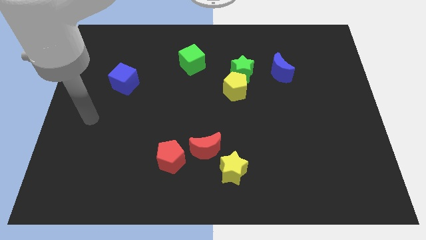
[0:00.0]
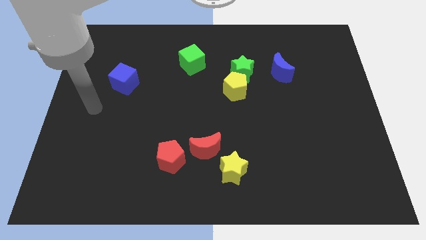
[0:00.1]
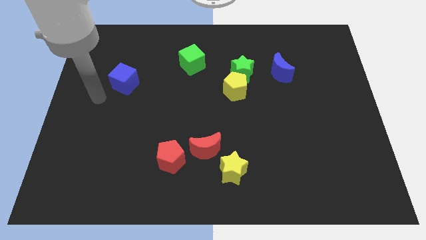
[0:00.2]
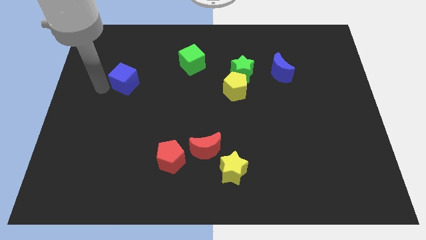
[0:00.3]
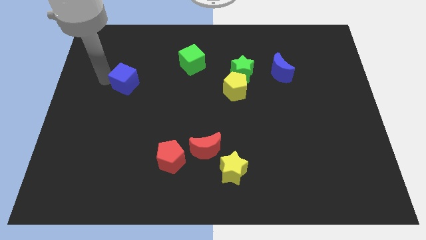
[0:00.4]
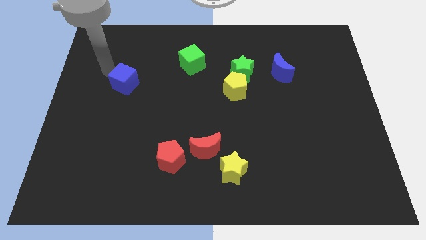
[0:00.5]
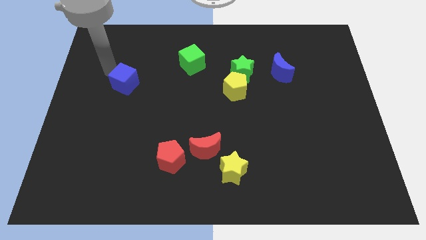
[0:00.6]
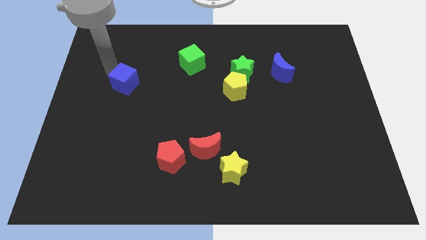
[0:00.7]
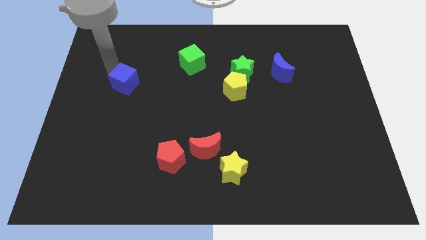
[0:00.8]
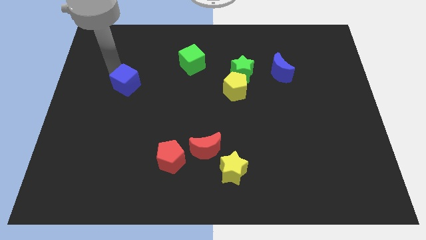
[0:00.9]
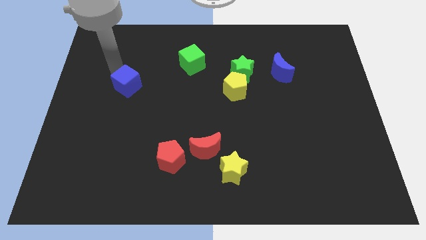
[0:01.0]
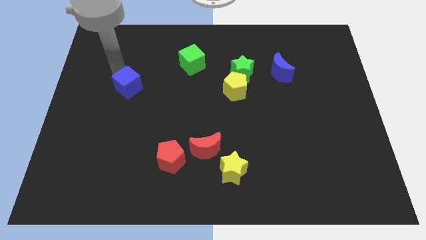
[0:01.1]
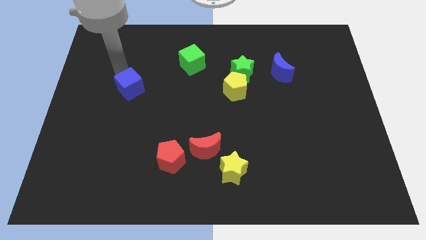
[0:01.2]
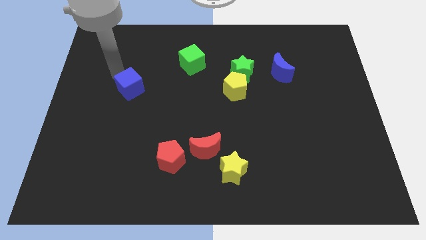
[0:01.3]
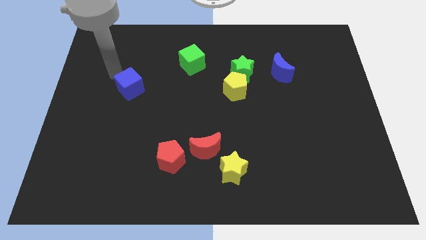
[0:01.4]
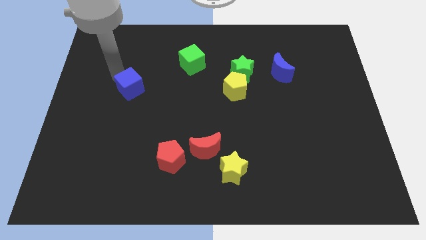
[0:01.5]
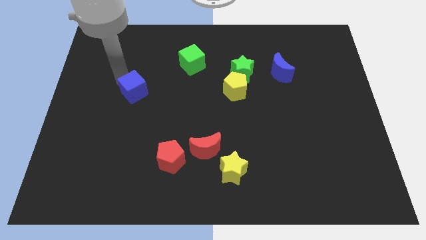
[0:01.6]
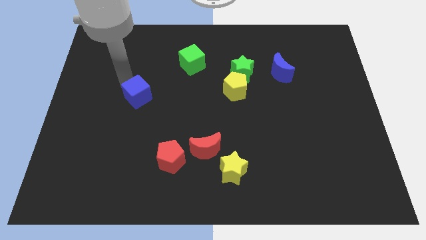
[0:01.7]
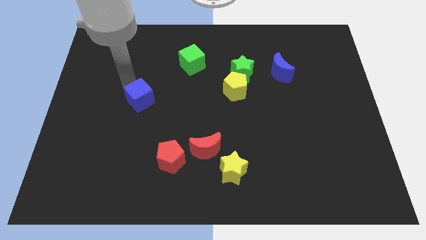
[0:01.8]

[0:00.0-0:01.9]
push the blue cube a little bit down and right

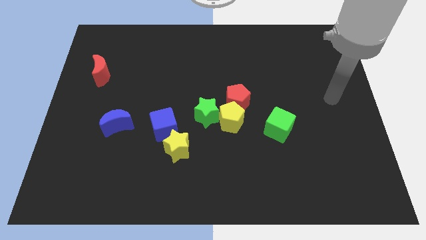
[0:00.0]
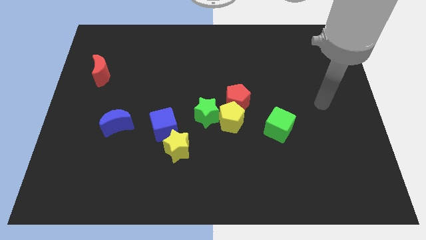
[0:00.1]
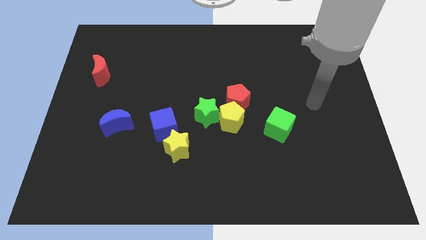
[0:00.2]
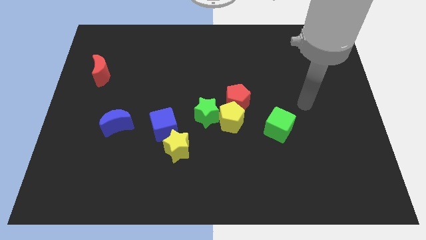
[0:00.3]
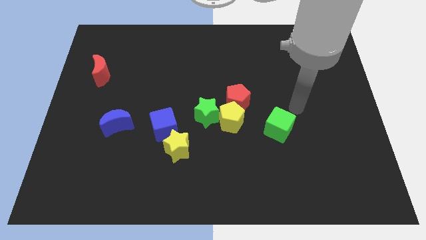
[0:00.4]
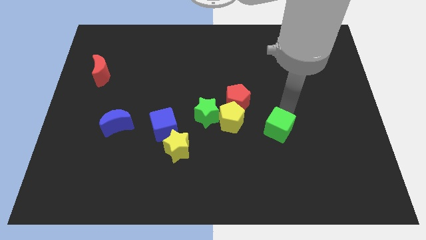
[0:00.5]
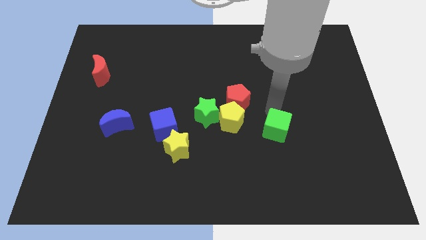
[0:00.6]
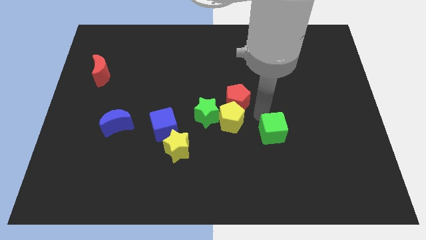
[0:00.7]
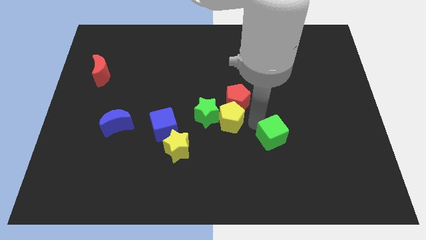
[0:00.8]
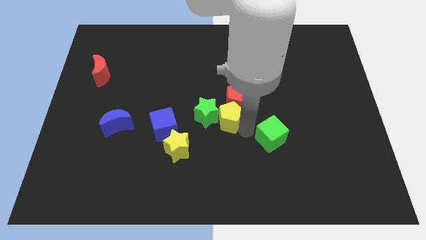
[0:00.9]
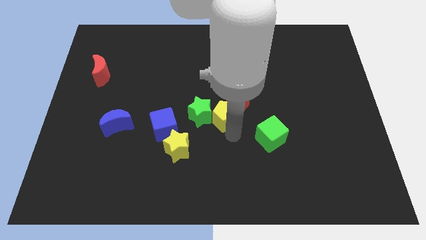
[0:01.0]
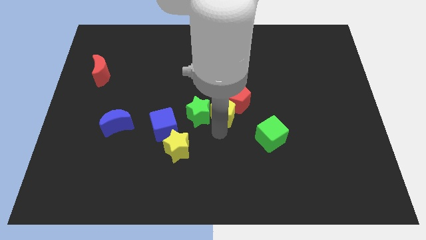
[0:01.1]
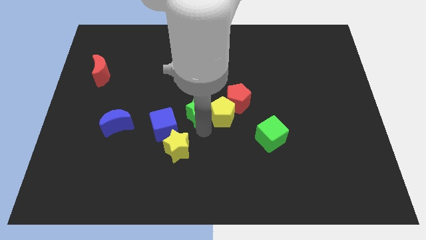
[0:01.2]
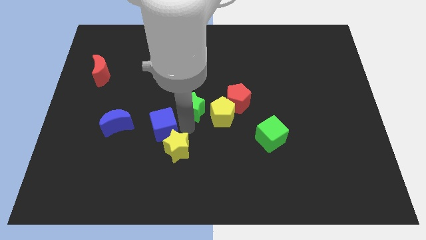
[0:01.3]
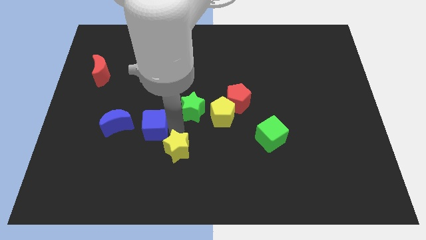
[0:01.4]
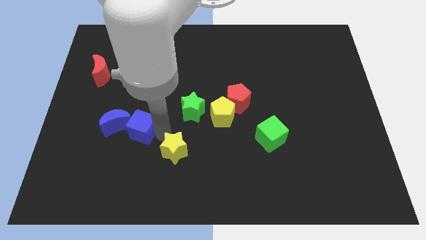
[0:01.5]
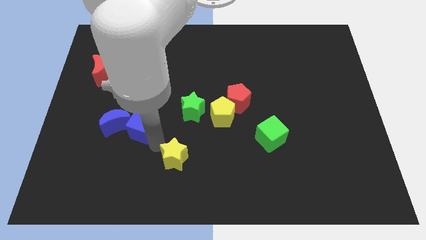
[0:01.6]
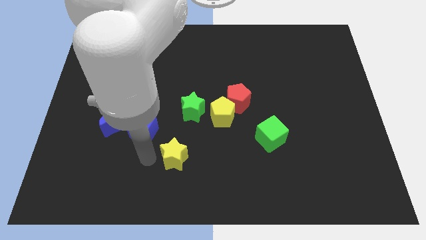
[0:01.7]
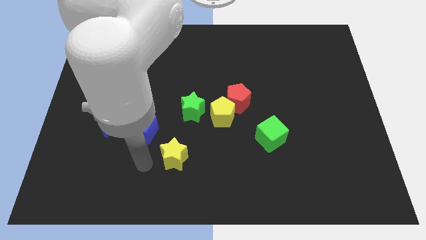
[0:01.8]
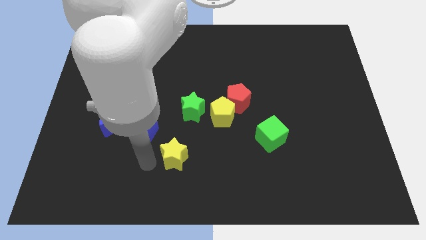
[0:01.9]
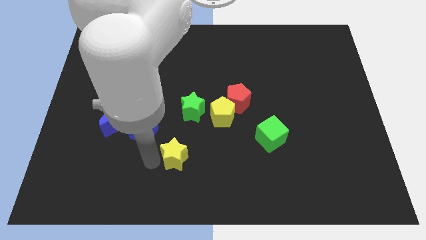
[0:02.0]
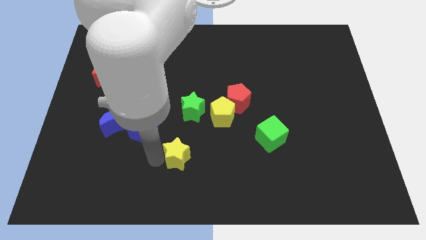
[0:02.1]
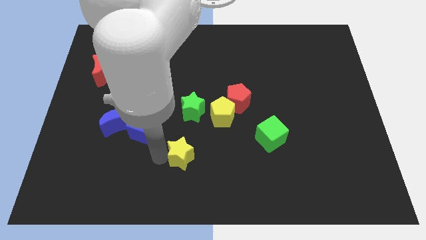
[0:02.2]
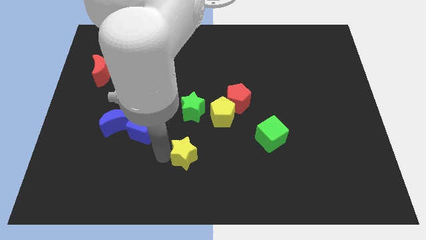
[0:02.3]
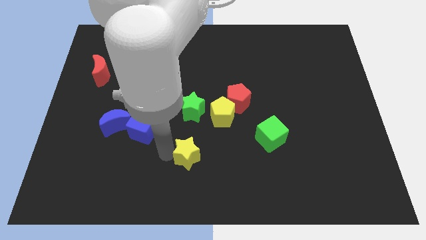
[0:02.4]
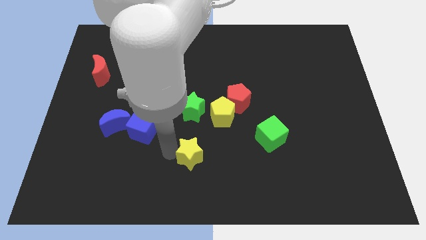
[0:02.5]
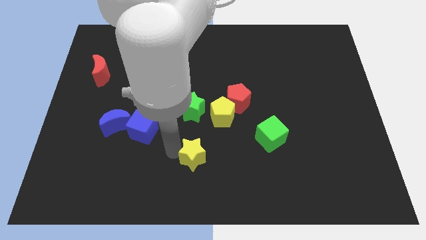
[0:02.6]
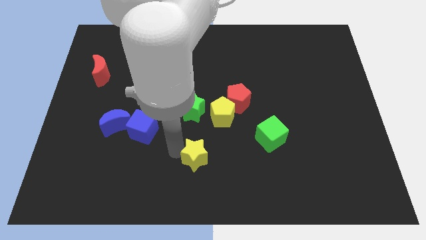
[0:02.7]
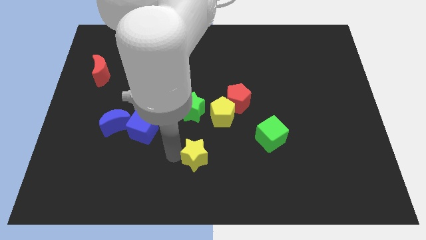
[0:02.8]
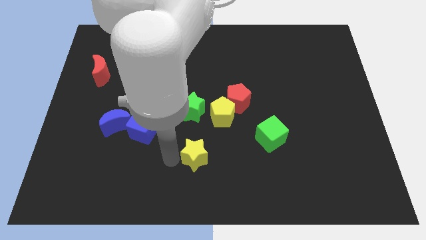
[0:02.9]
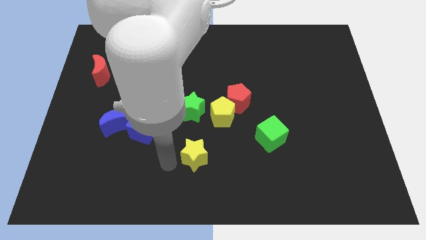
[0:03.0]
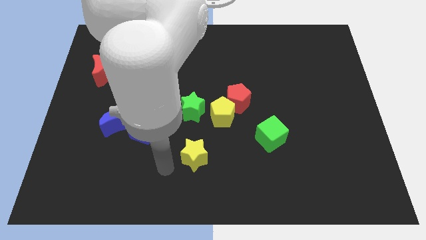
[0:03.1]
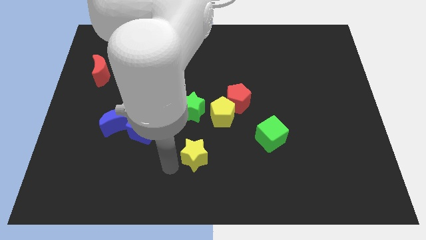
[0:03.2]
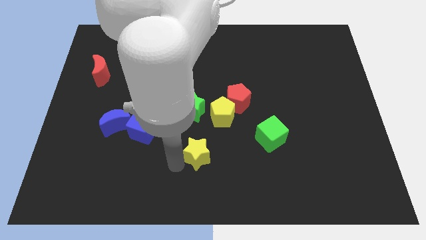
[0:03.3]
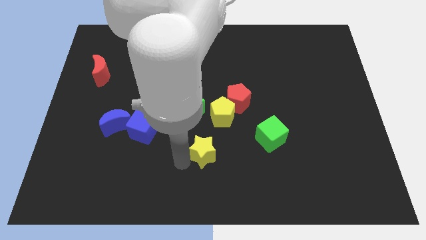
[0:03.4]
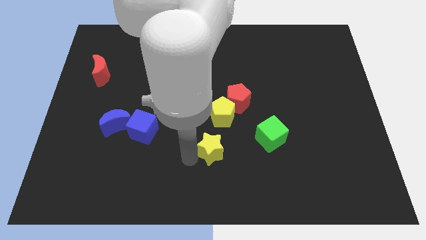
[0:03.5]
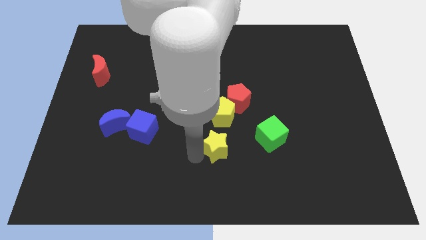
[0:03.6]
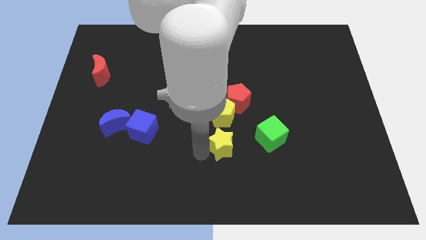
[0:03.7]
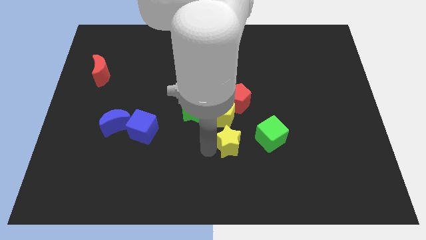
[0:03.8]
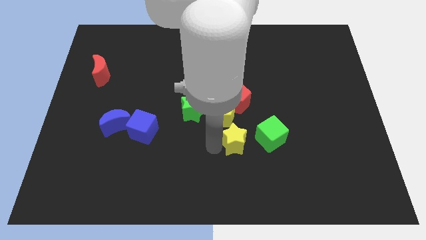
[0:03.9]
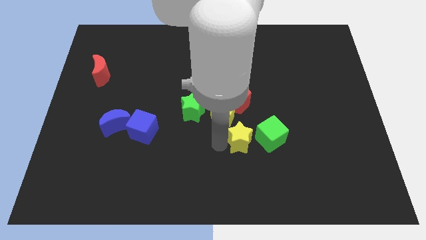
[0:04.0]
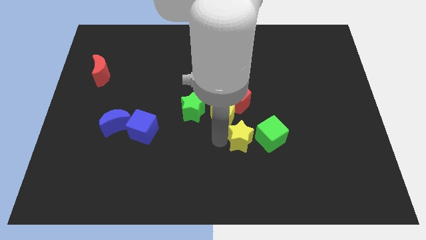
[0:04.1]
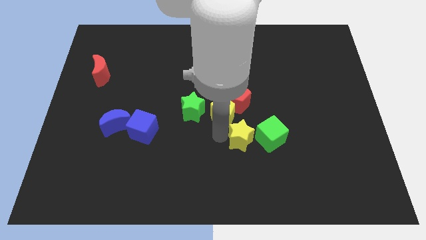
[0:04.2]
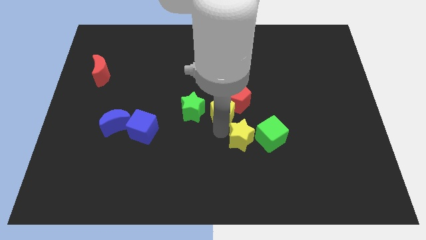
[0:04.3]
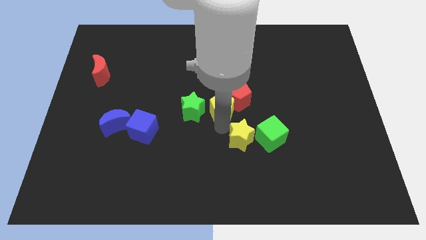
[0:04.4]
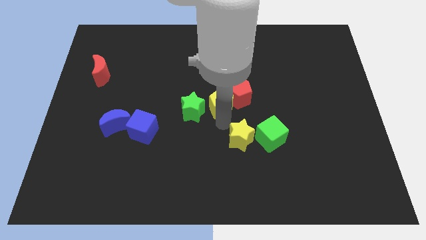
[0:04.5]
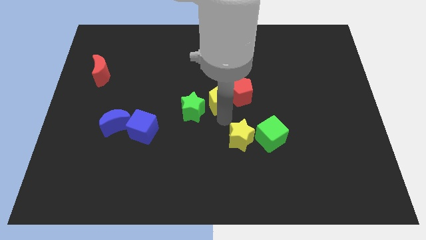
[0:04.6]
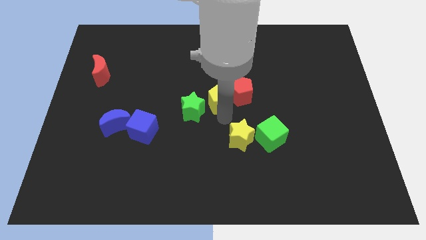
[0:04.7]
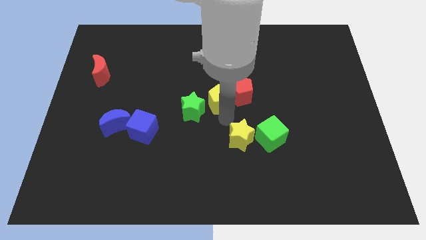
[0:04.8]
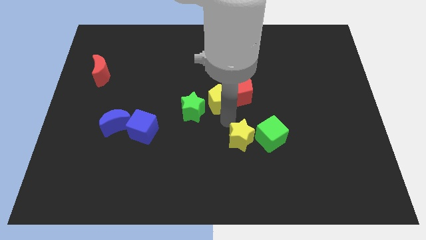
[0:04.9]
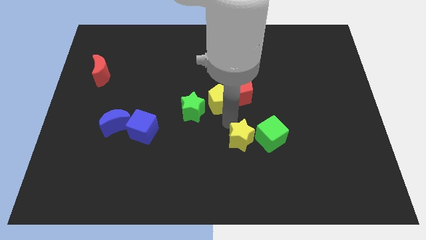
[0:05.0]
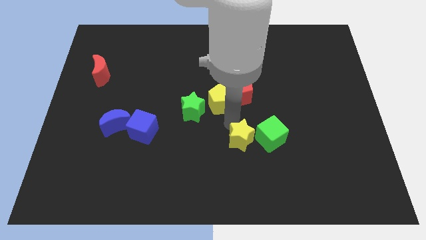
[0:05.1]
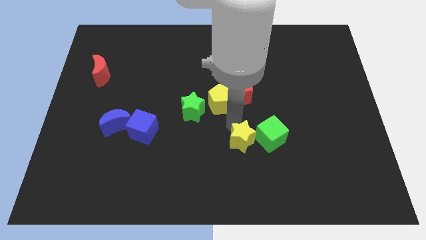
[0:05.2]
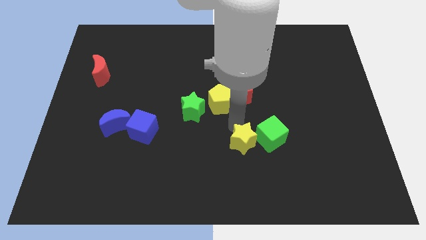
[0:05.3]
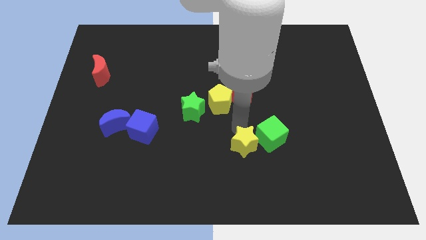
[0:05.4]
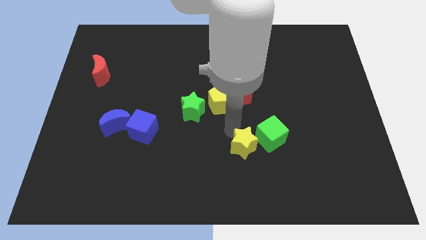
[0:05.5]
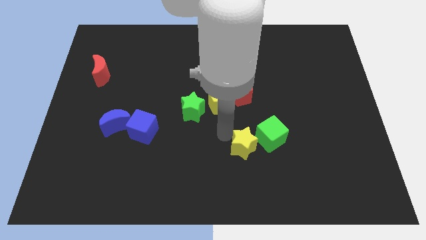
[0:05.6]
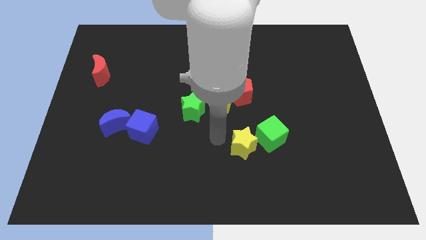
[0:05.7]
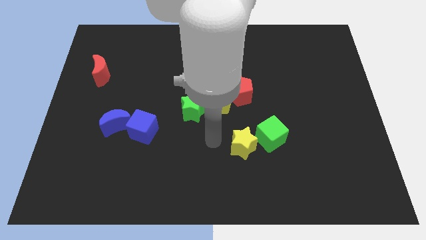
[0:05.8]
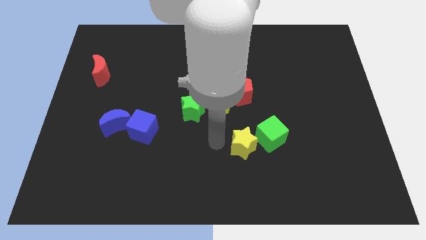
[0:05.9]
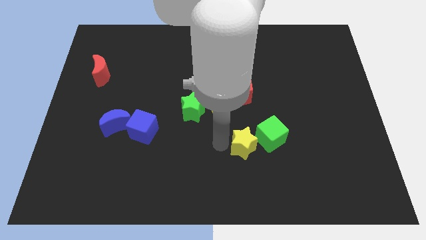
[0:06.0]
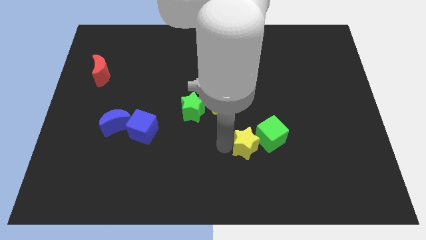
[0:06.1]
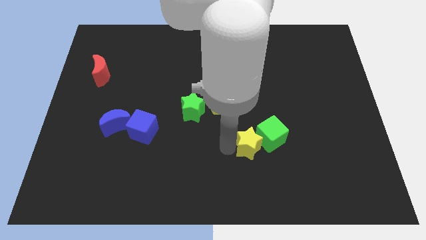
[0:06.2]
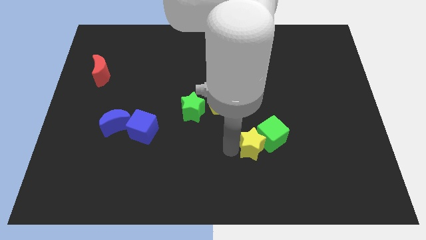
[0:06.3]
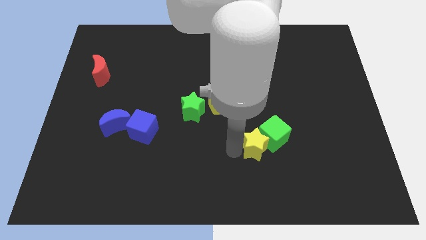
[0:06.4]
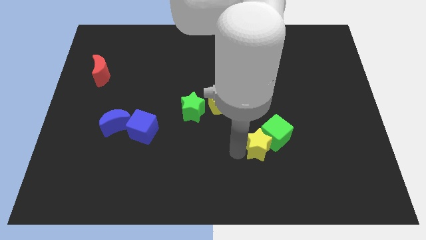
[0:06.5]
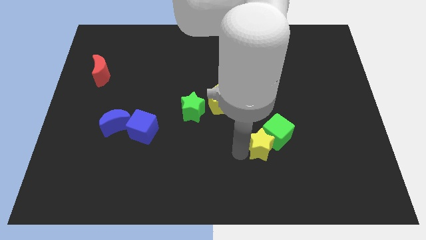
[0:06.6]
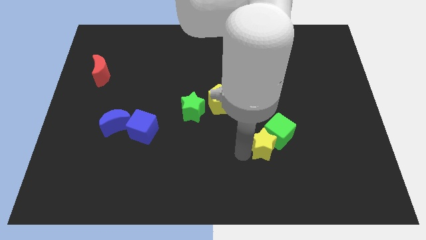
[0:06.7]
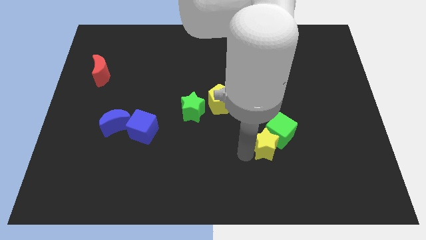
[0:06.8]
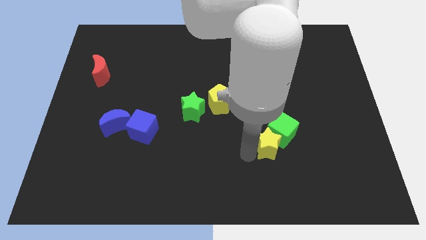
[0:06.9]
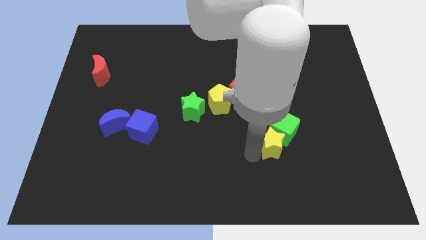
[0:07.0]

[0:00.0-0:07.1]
push the yellow star to the right
